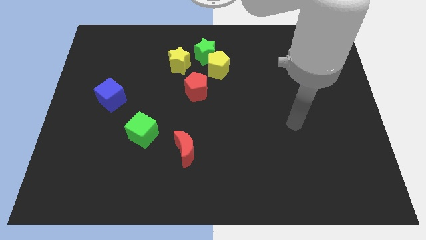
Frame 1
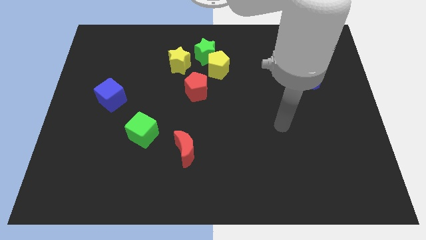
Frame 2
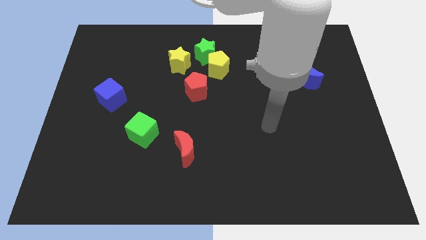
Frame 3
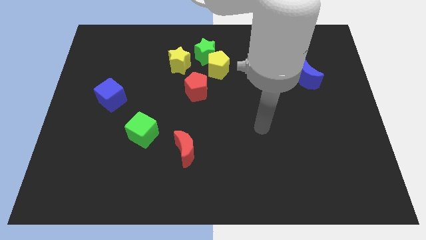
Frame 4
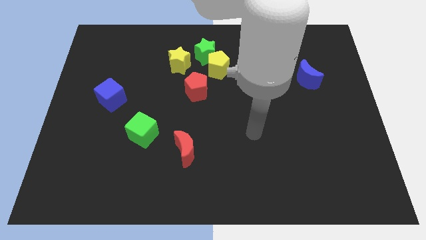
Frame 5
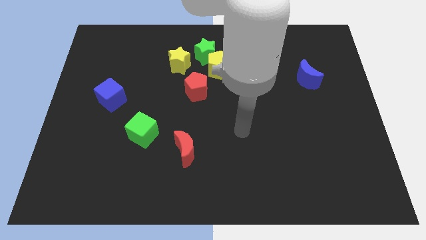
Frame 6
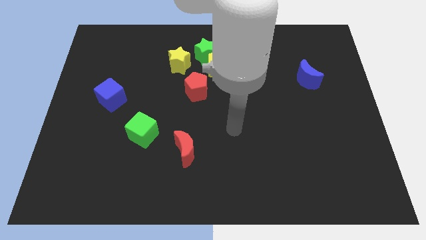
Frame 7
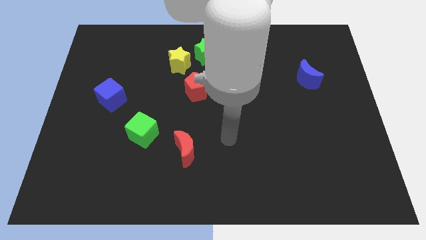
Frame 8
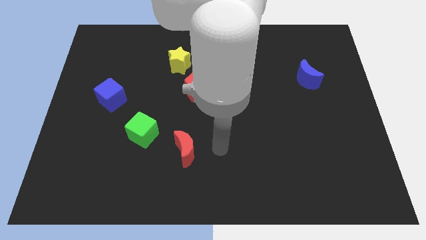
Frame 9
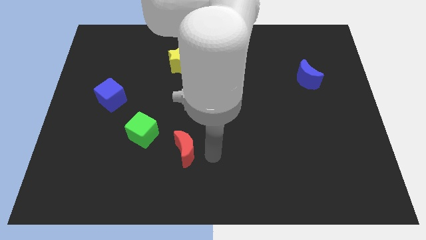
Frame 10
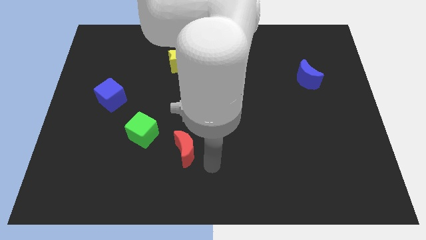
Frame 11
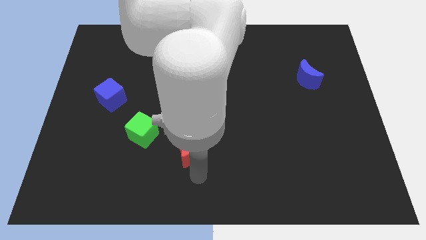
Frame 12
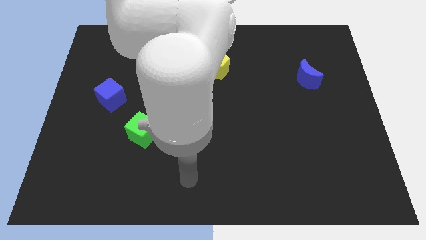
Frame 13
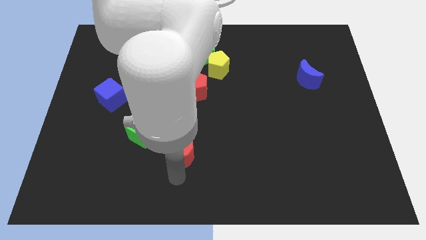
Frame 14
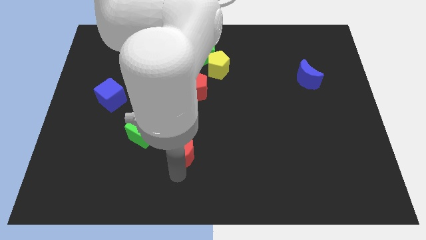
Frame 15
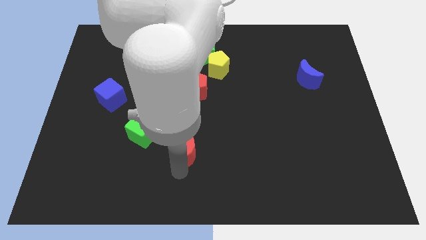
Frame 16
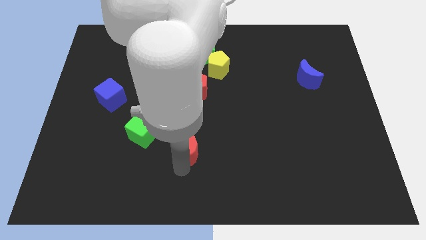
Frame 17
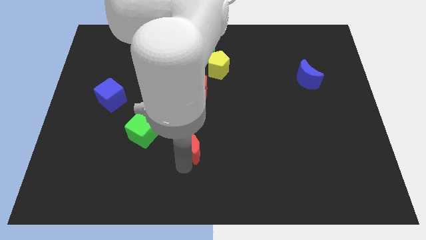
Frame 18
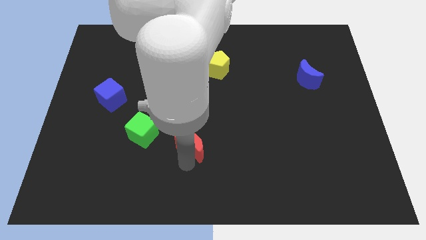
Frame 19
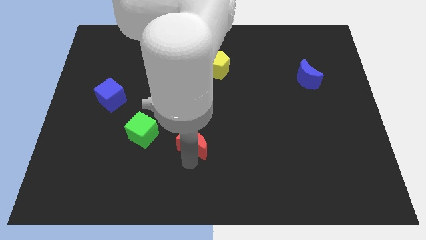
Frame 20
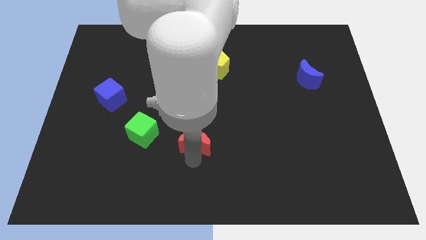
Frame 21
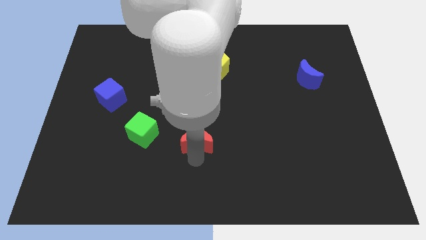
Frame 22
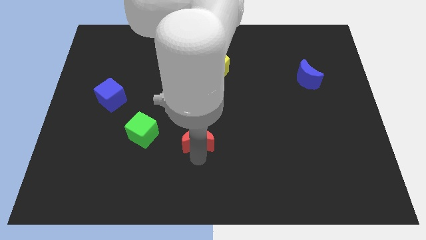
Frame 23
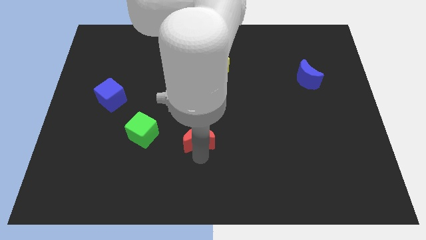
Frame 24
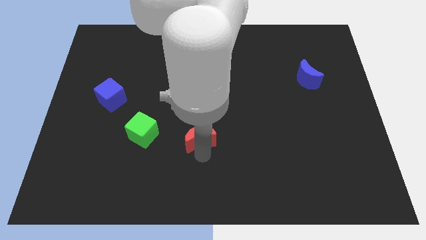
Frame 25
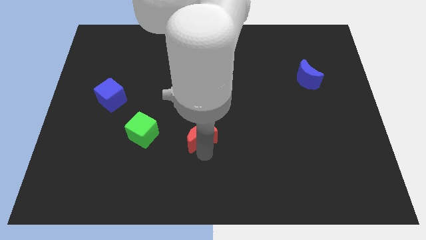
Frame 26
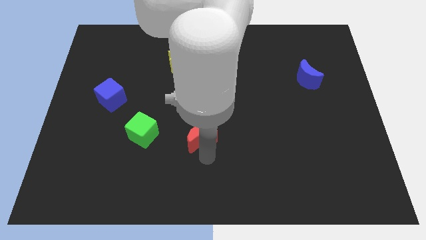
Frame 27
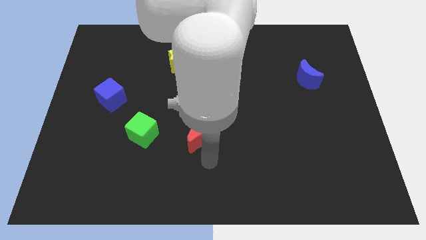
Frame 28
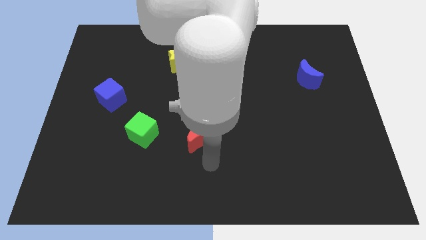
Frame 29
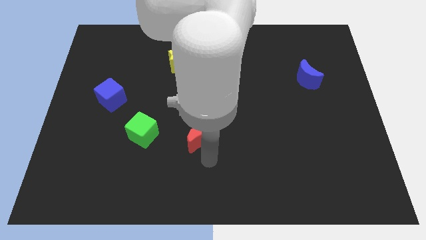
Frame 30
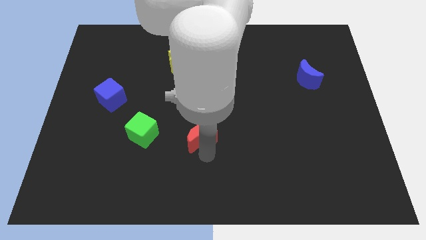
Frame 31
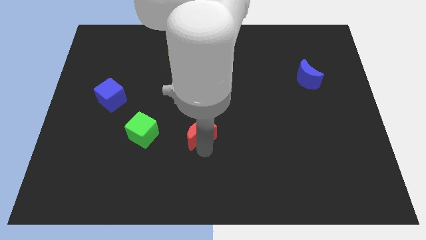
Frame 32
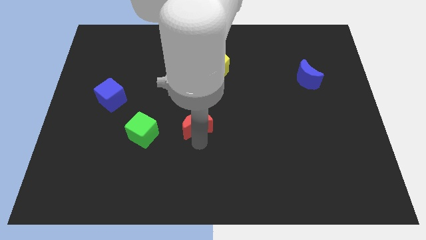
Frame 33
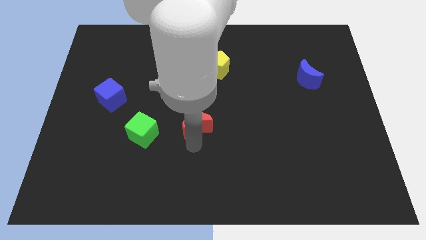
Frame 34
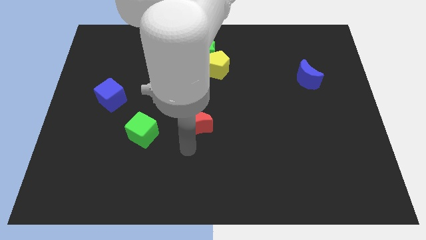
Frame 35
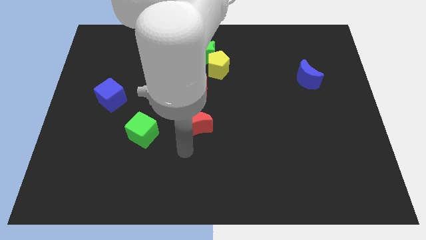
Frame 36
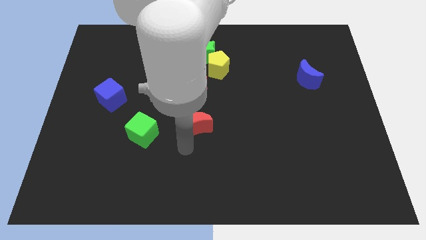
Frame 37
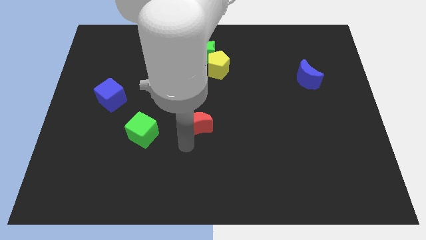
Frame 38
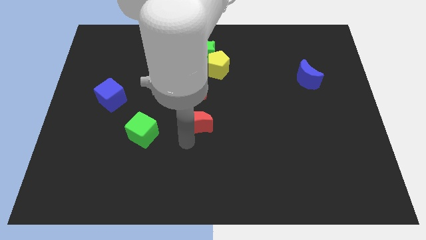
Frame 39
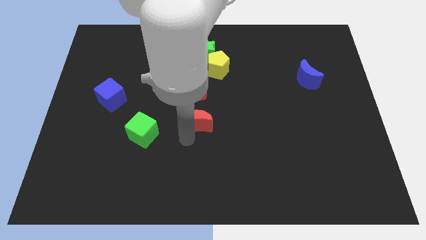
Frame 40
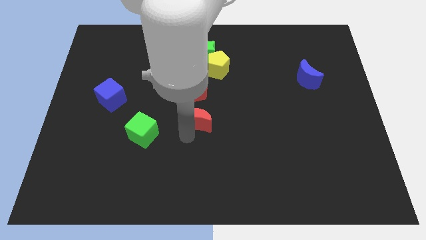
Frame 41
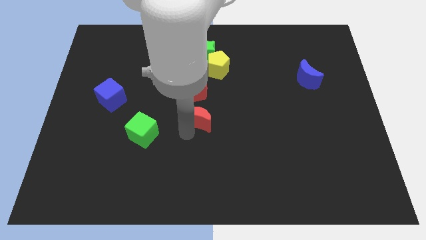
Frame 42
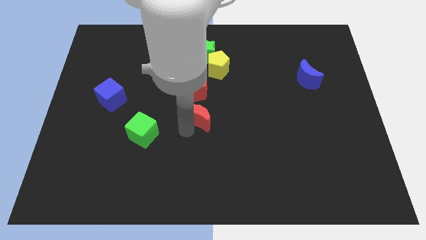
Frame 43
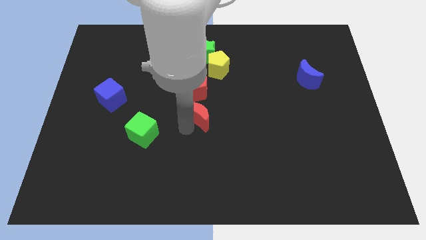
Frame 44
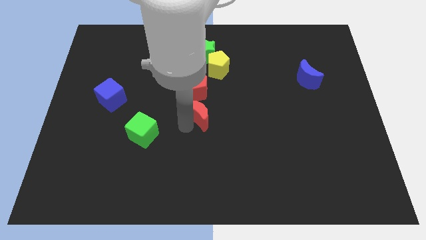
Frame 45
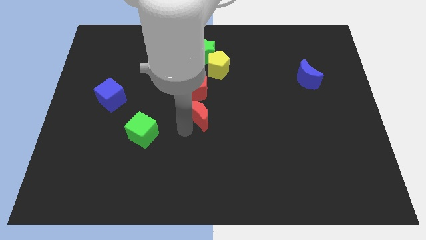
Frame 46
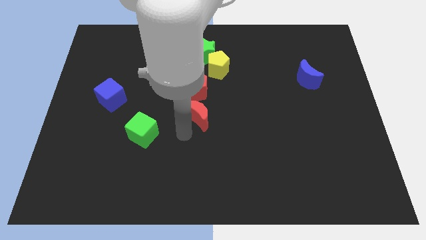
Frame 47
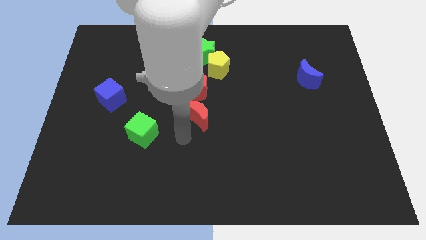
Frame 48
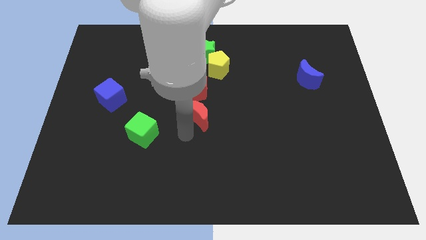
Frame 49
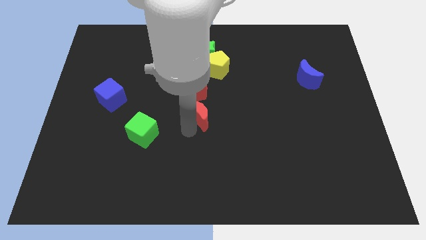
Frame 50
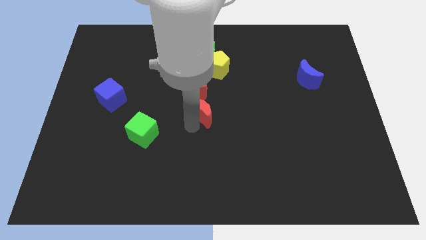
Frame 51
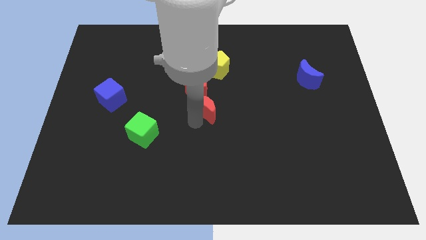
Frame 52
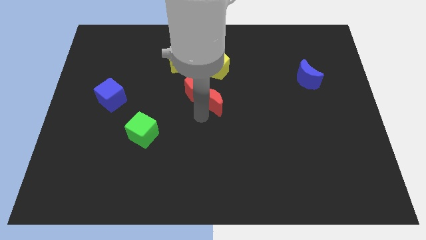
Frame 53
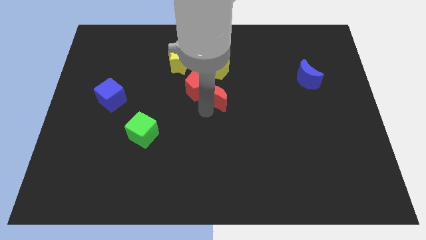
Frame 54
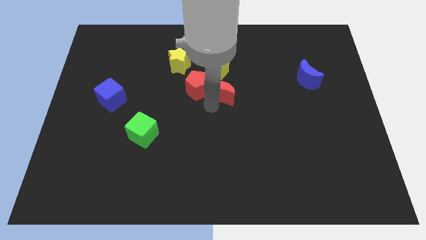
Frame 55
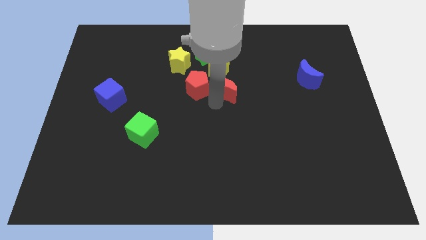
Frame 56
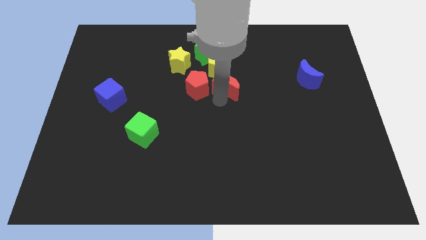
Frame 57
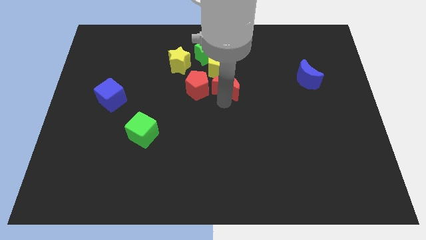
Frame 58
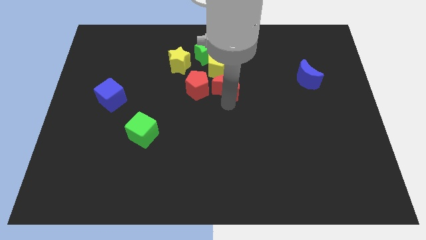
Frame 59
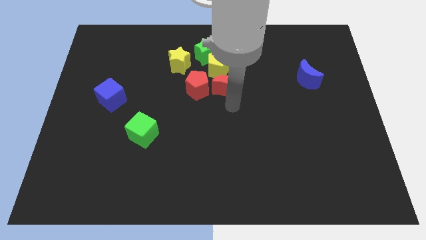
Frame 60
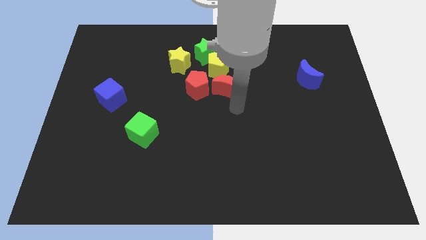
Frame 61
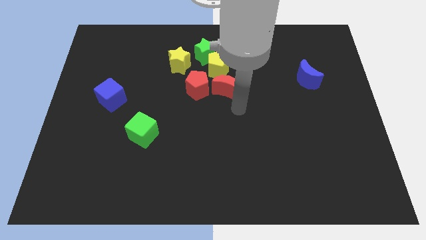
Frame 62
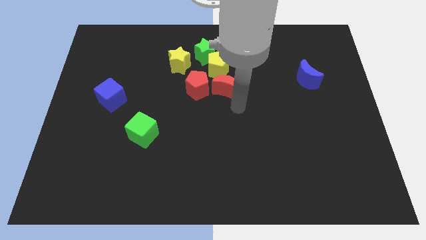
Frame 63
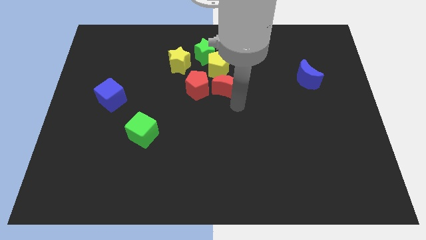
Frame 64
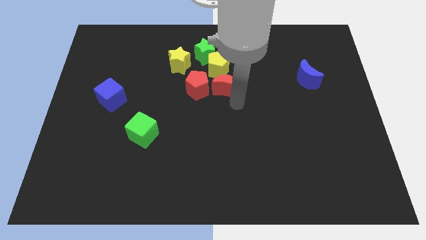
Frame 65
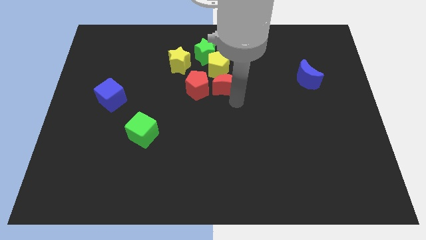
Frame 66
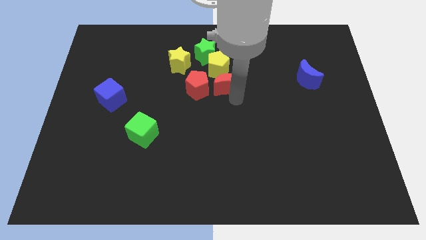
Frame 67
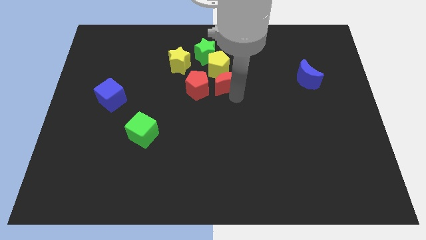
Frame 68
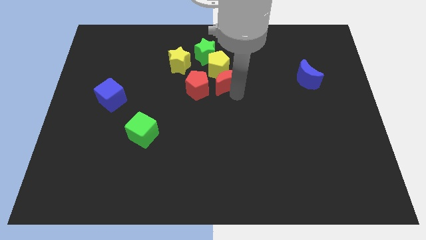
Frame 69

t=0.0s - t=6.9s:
slide the red moon close to the yellow pentagon
